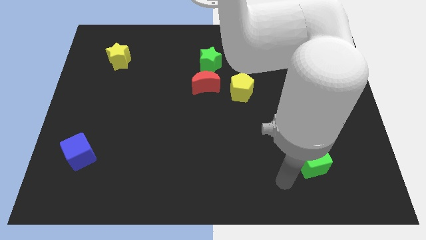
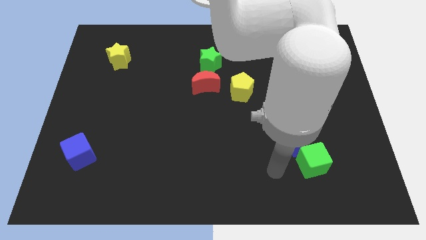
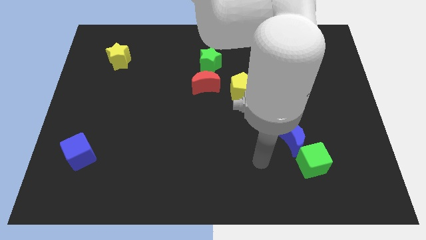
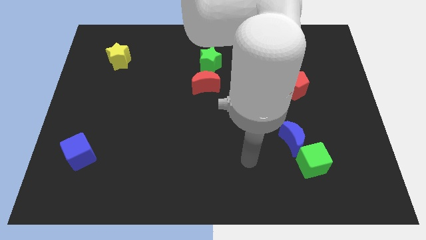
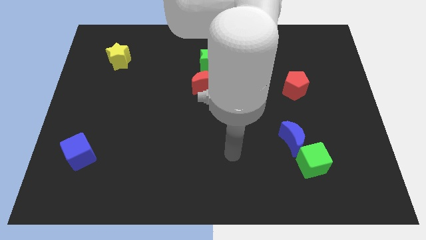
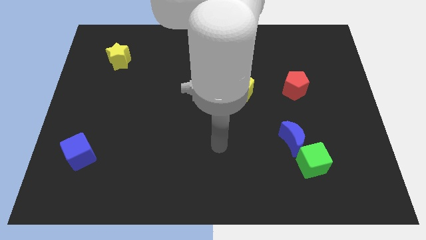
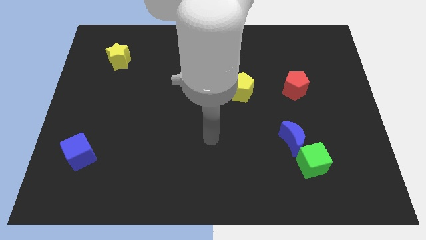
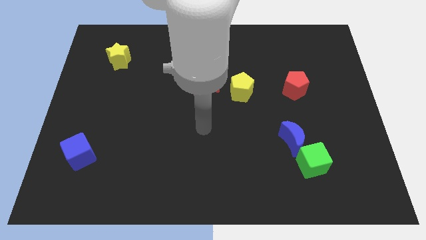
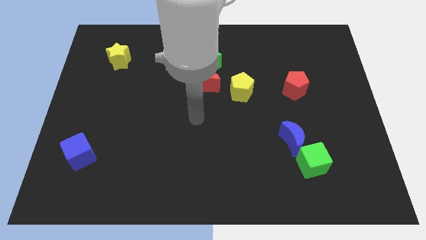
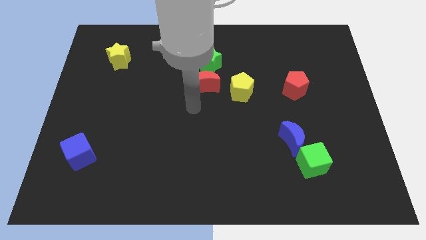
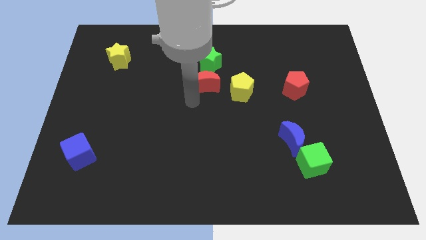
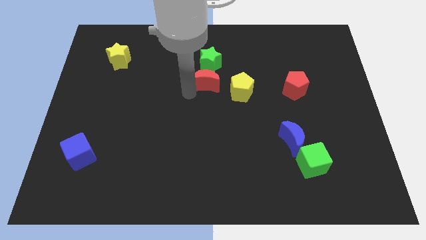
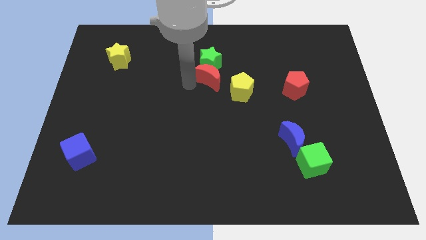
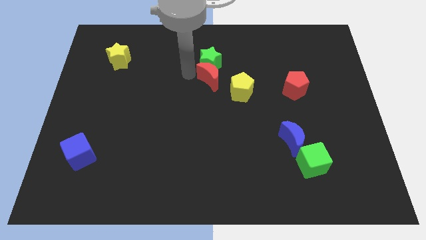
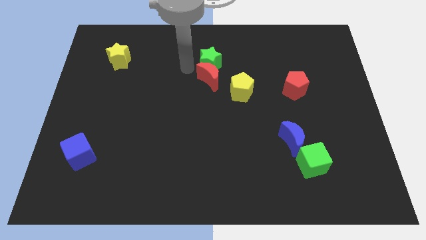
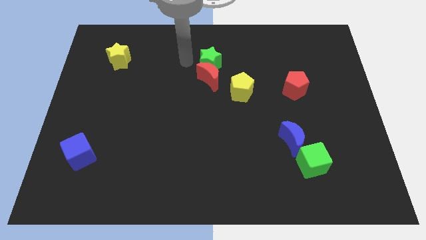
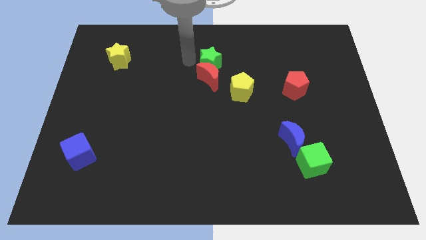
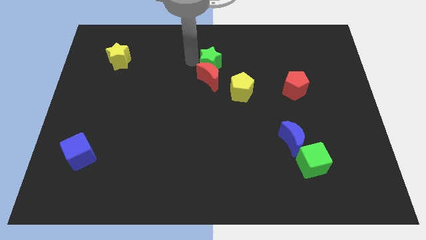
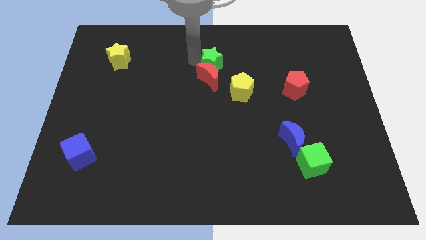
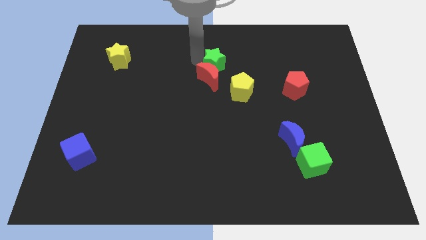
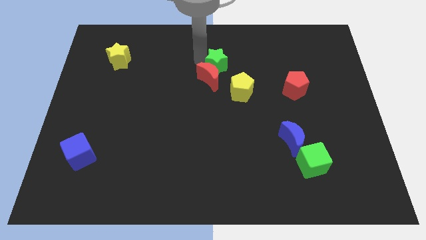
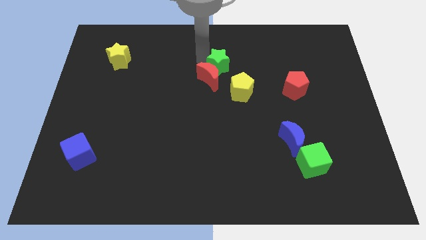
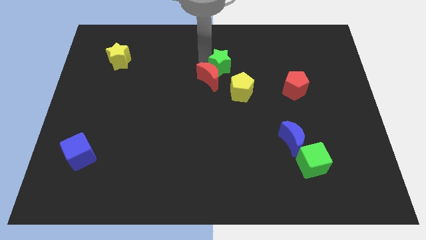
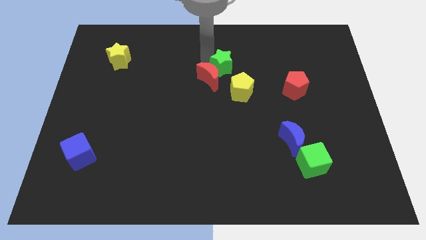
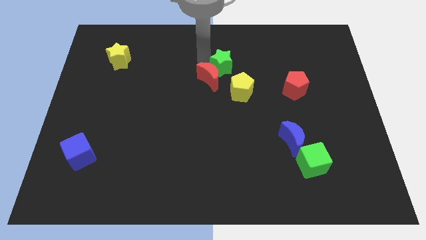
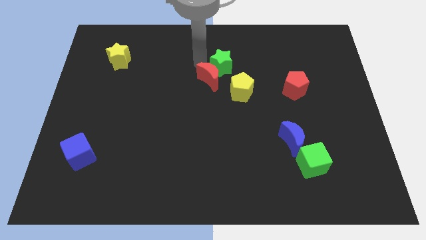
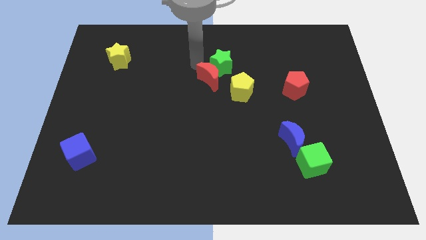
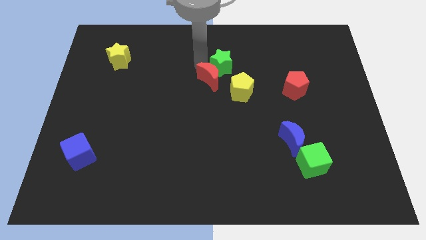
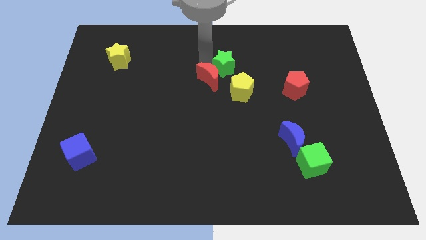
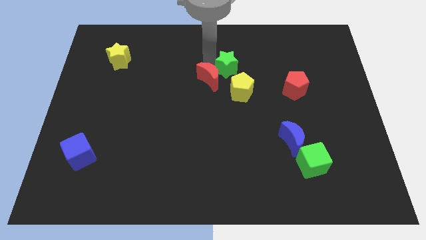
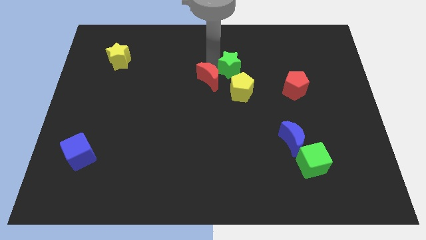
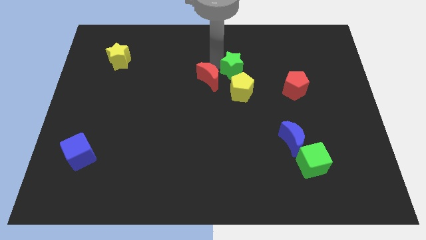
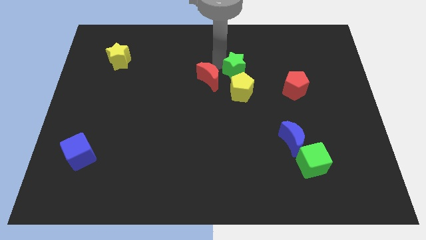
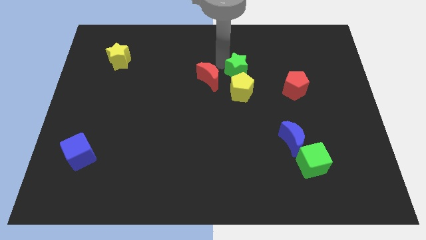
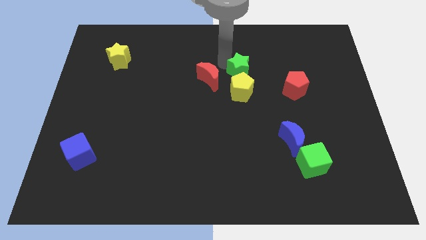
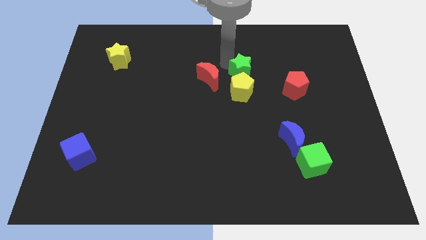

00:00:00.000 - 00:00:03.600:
slide the green star a little down and right

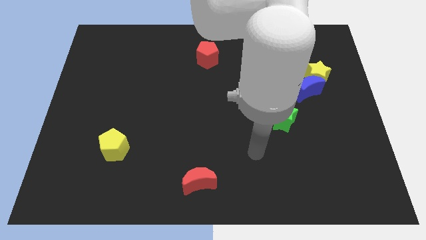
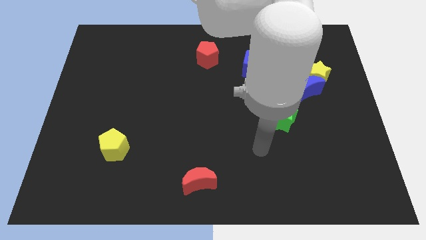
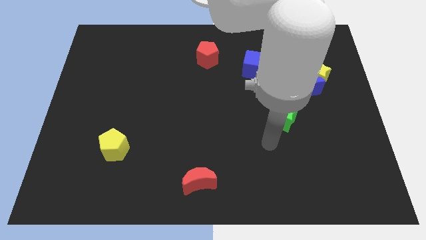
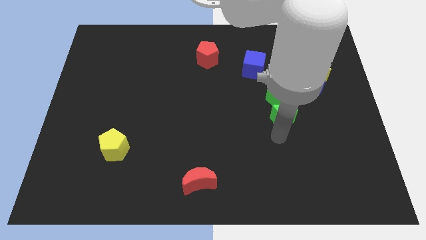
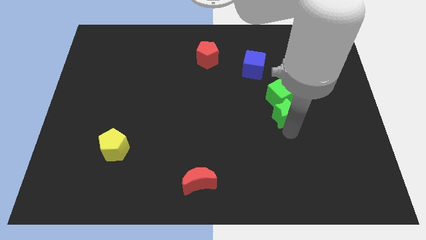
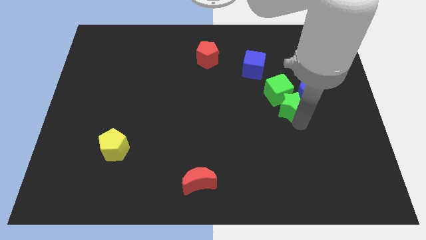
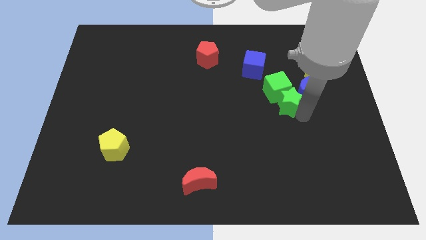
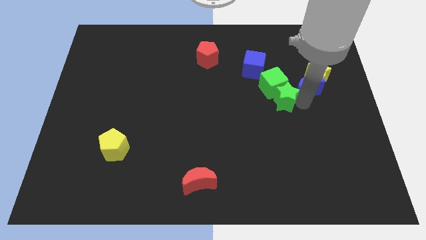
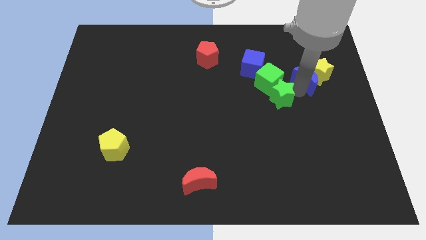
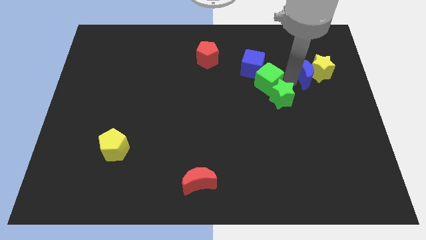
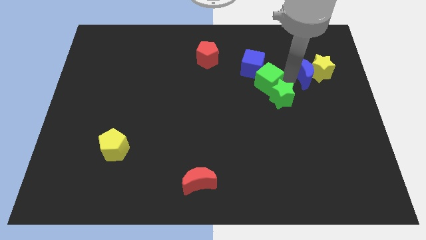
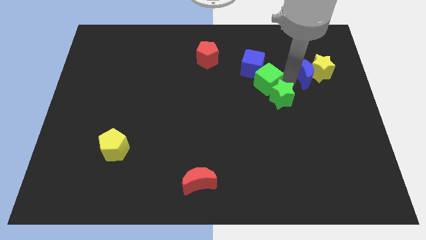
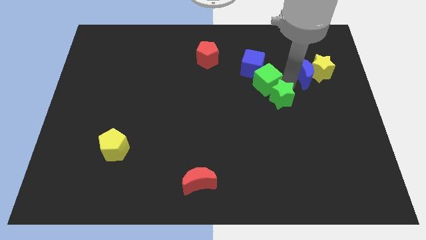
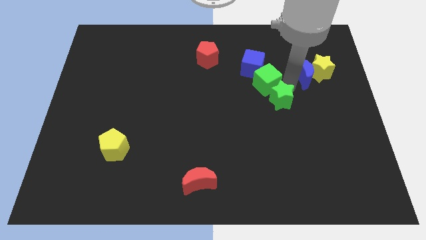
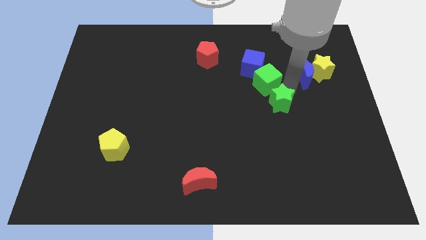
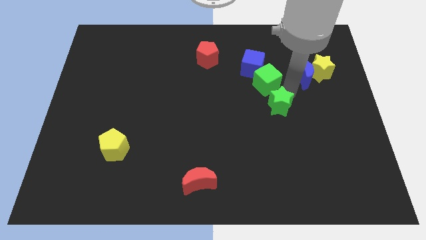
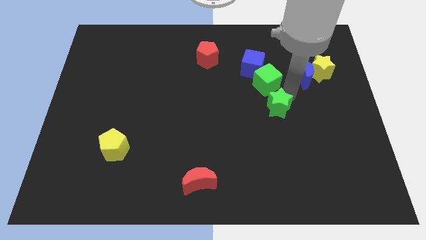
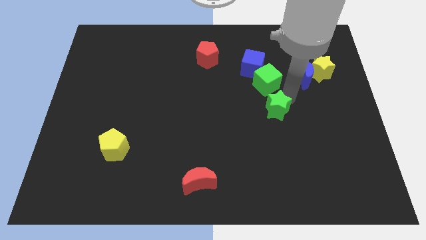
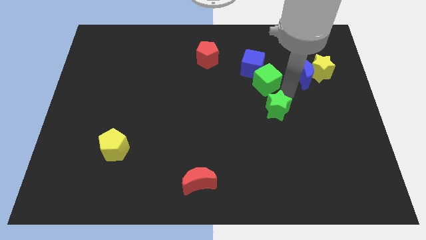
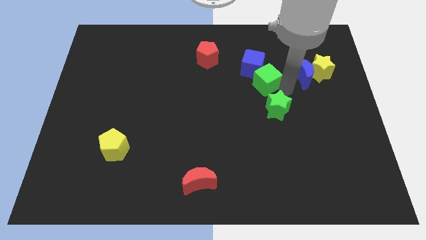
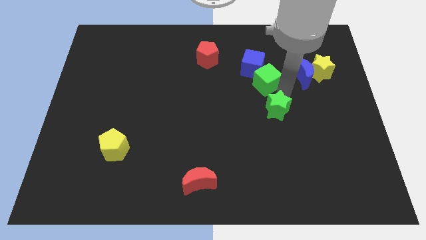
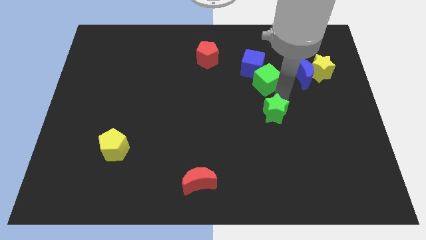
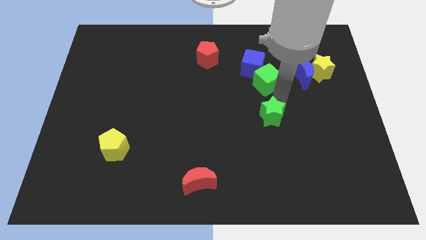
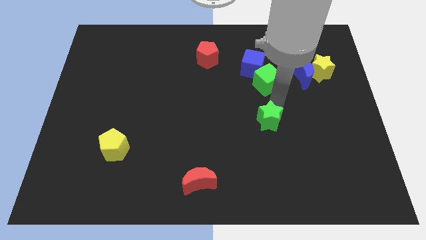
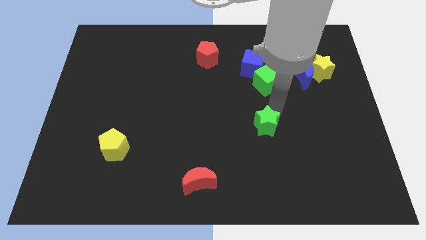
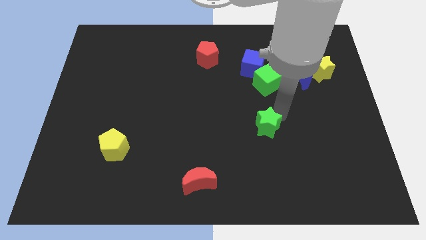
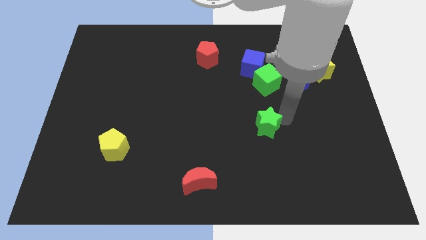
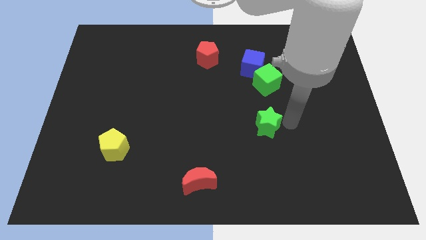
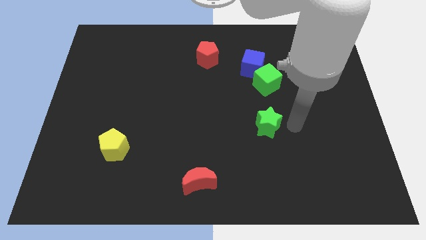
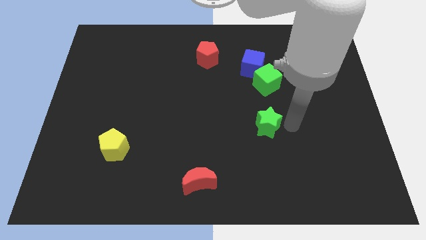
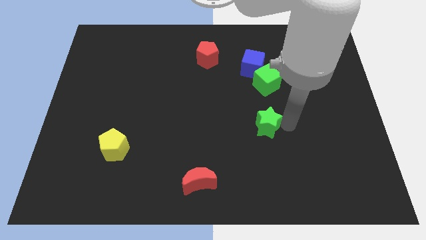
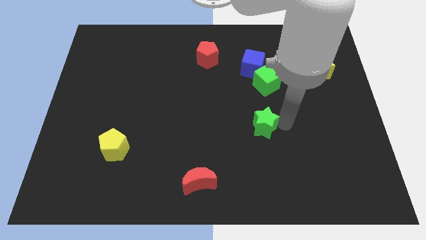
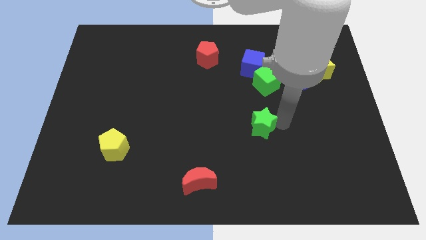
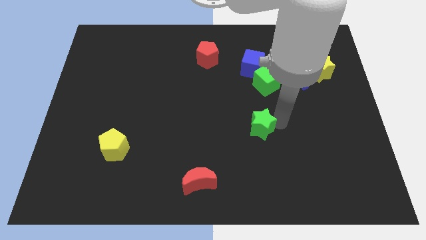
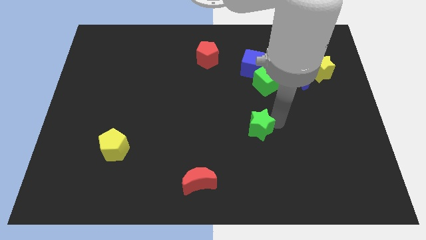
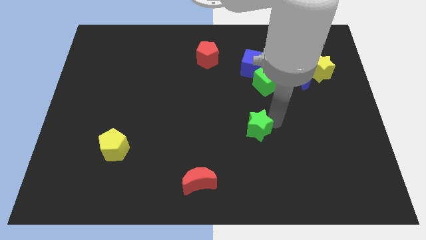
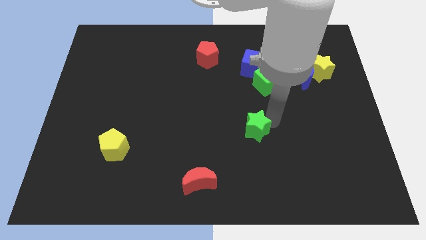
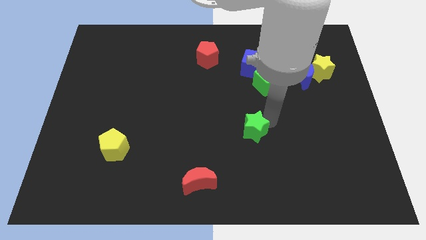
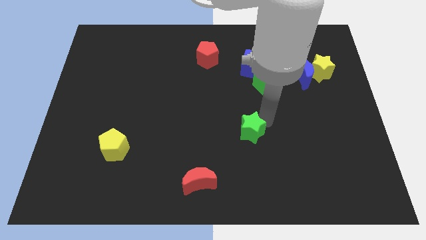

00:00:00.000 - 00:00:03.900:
push the green star left a bit

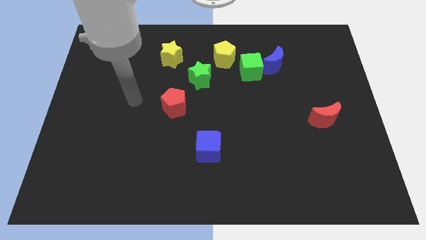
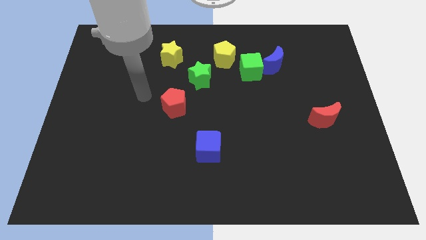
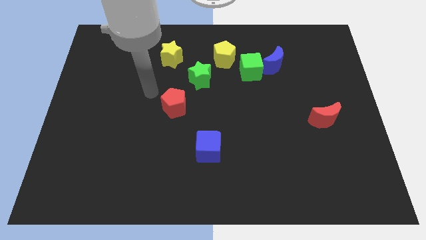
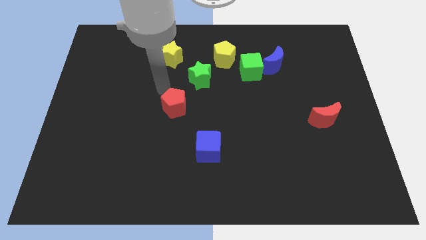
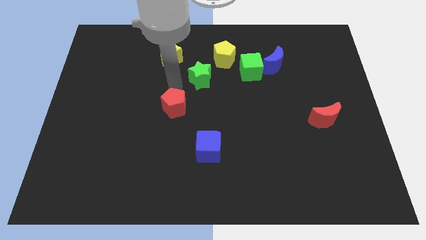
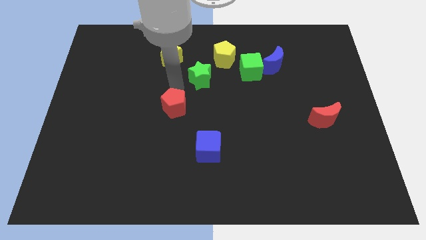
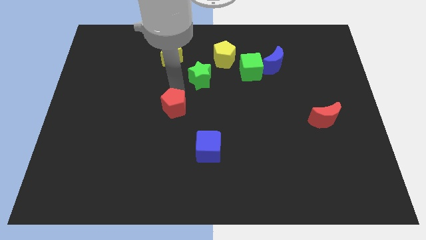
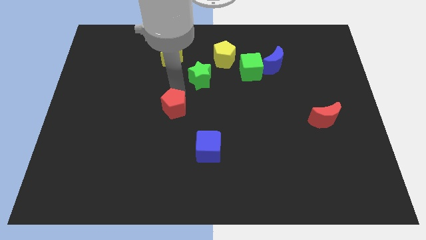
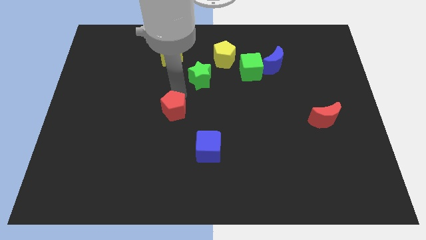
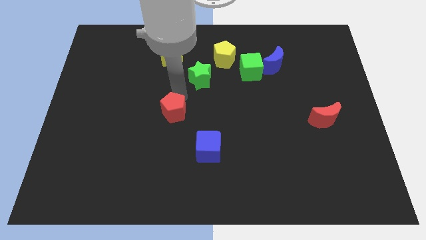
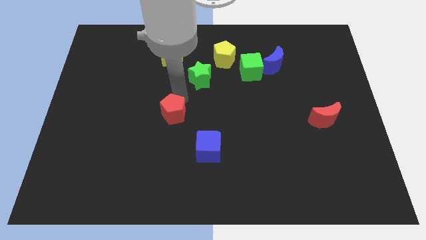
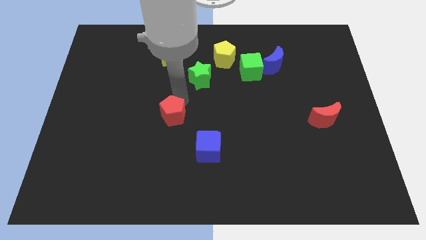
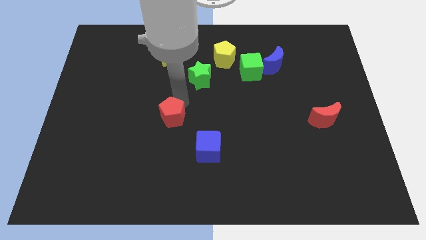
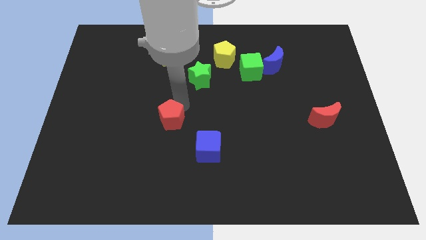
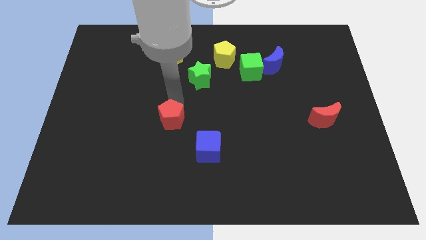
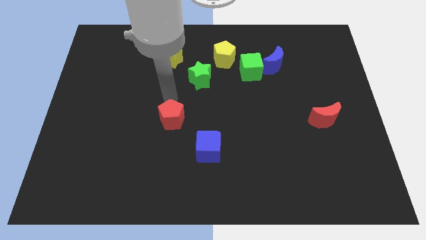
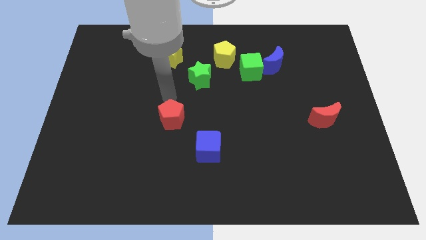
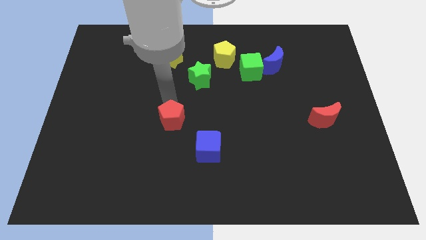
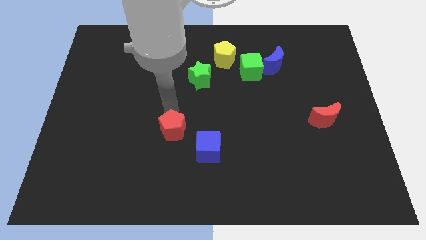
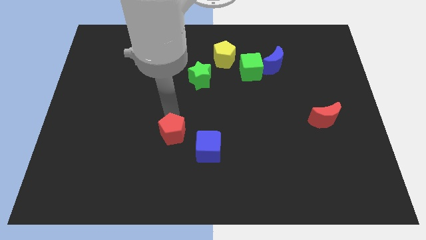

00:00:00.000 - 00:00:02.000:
slightly push the red pentagon downwards
